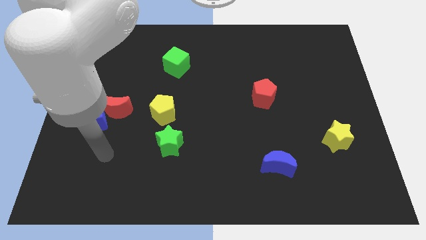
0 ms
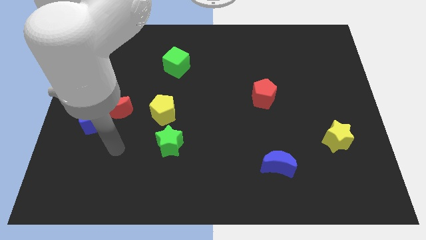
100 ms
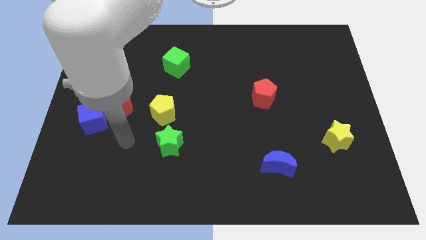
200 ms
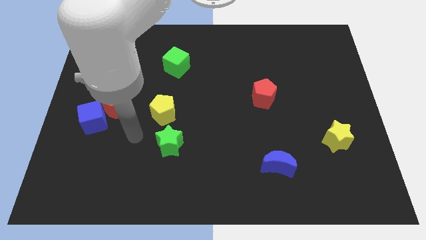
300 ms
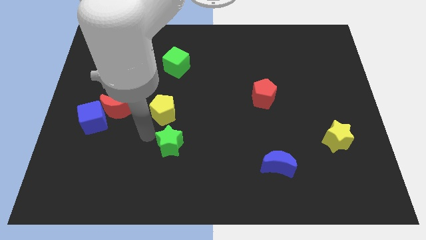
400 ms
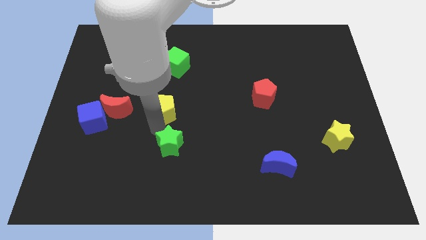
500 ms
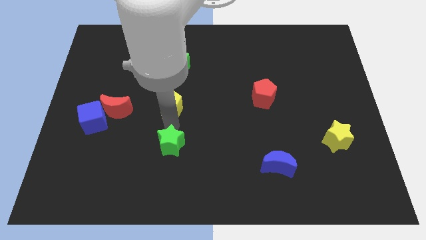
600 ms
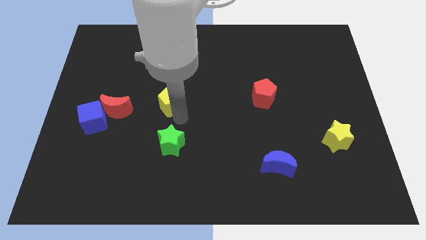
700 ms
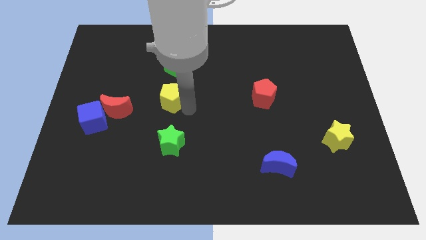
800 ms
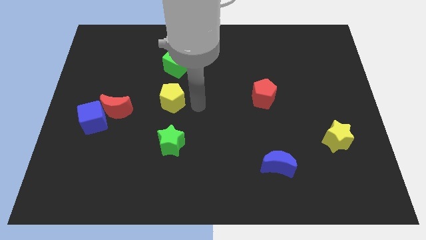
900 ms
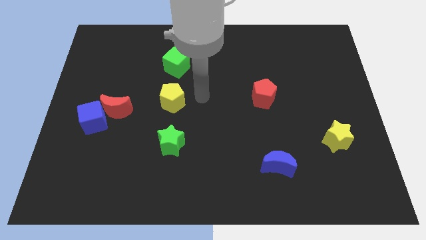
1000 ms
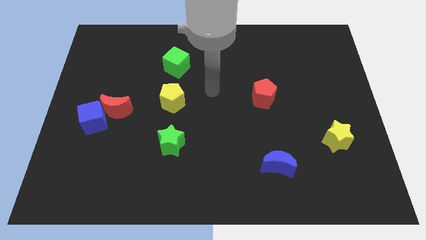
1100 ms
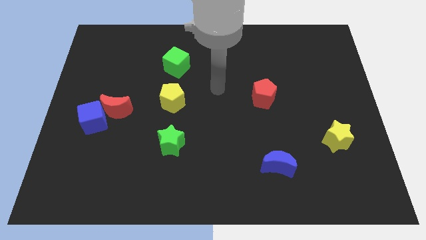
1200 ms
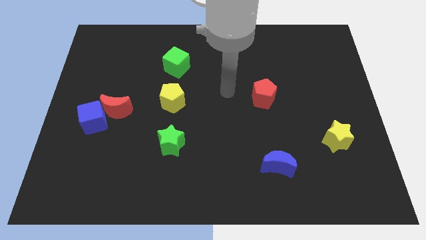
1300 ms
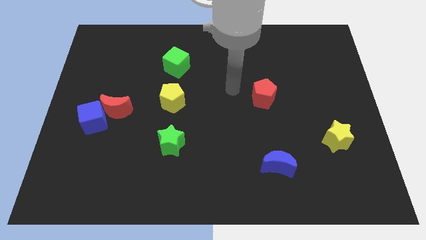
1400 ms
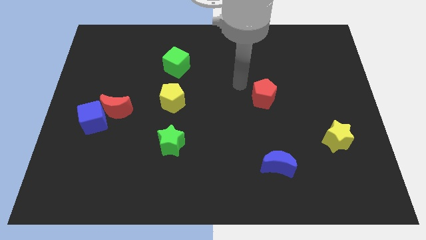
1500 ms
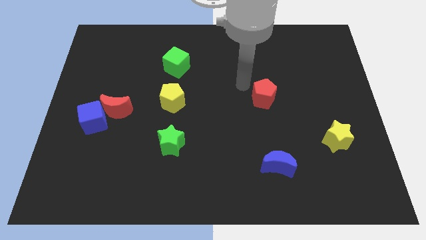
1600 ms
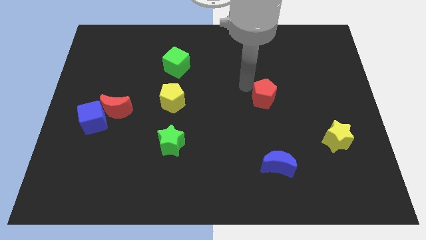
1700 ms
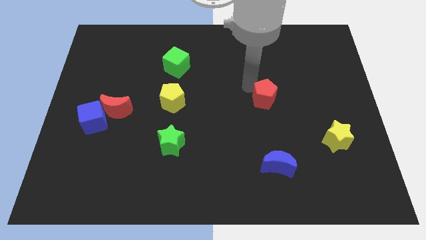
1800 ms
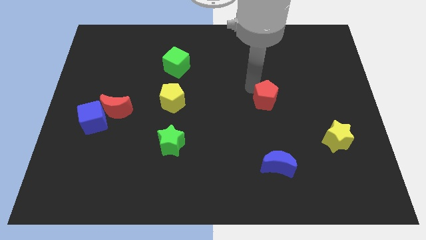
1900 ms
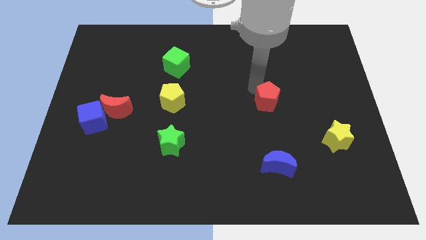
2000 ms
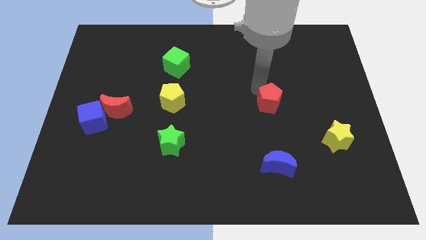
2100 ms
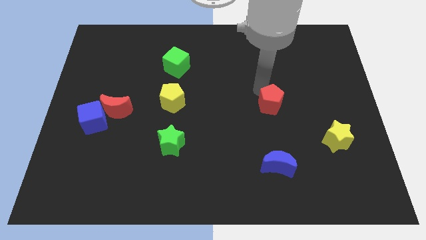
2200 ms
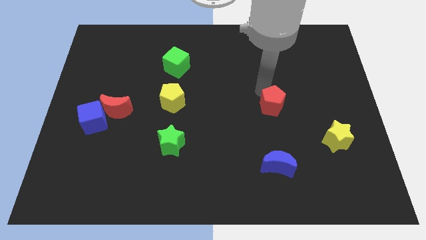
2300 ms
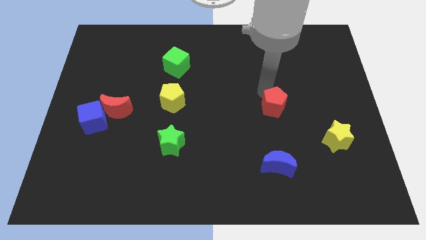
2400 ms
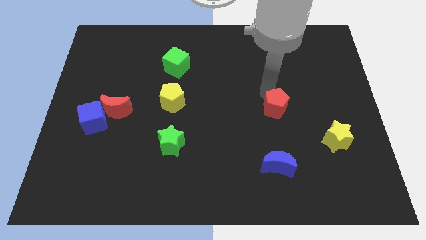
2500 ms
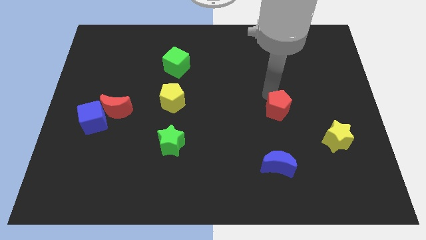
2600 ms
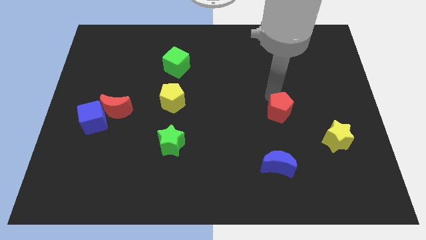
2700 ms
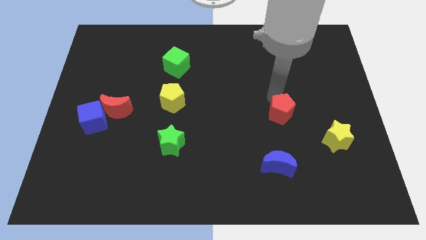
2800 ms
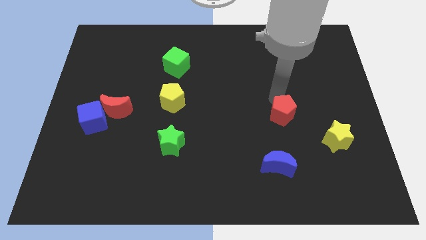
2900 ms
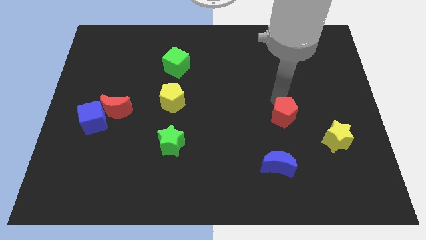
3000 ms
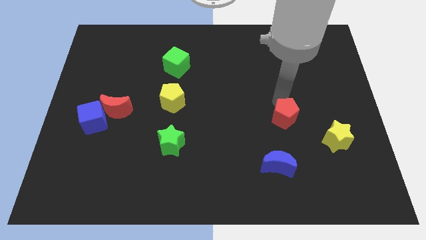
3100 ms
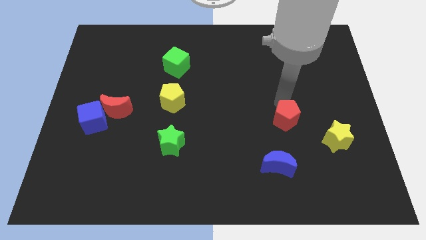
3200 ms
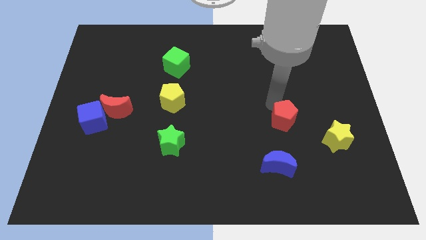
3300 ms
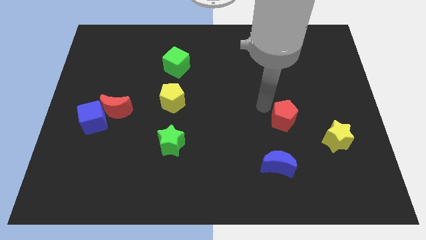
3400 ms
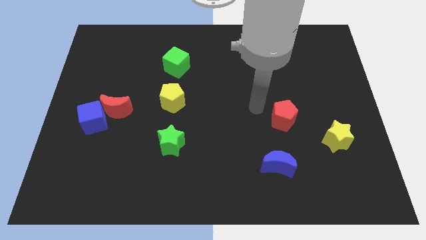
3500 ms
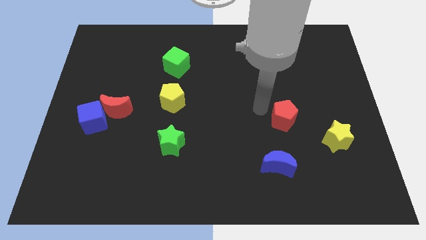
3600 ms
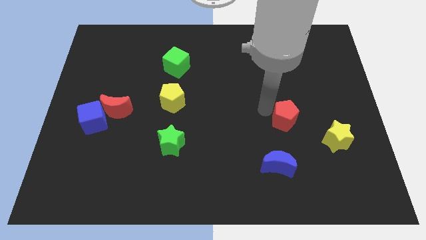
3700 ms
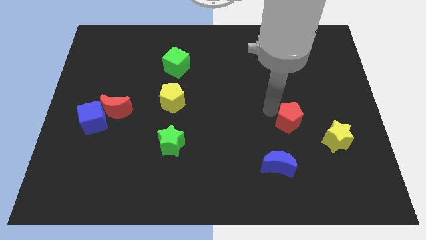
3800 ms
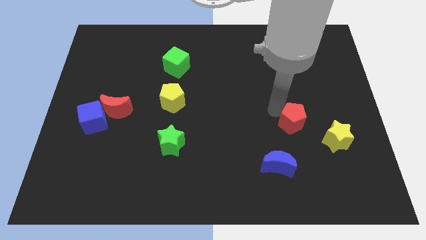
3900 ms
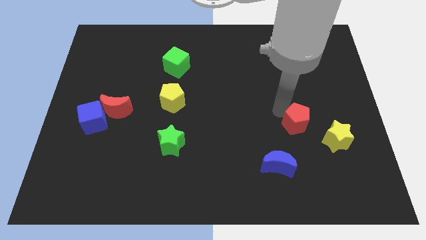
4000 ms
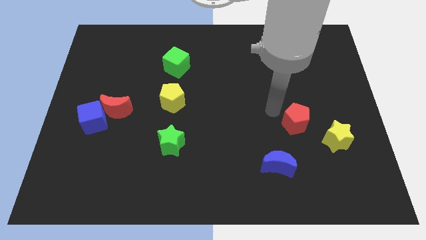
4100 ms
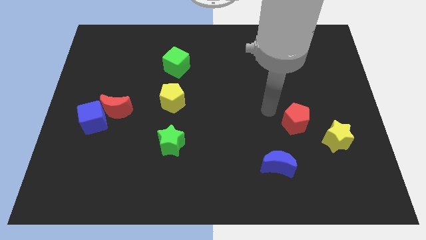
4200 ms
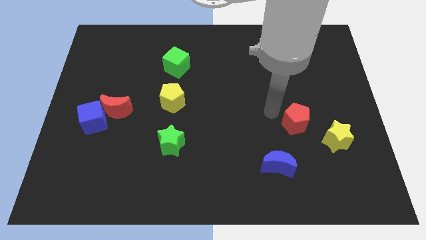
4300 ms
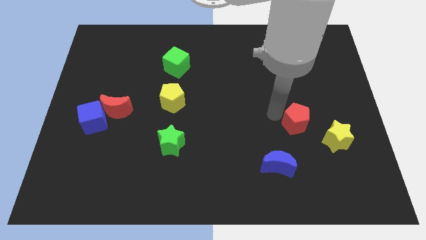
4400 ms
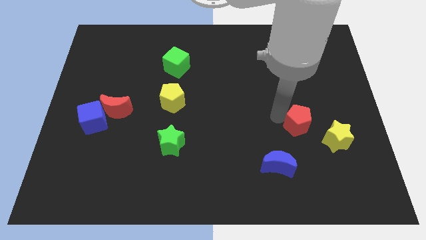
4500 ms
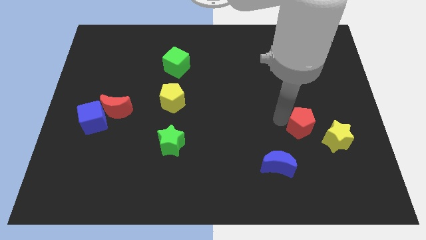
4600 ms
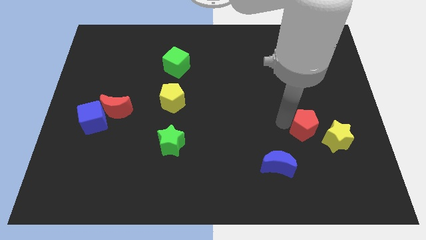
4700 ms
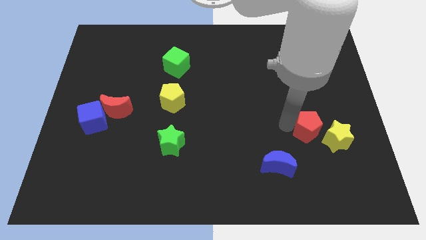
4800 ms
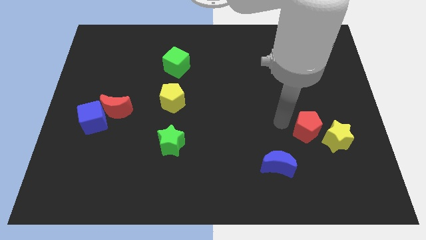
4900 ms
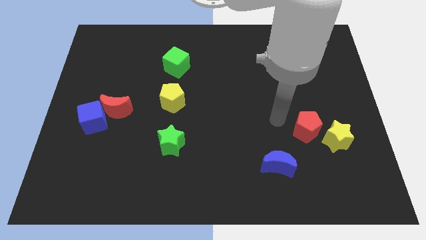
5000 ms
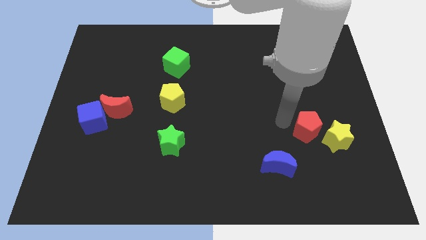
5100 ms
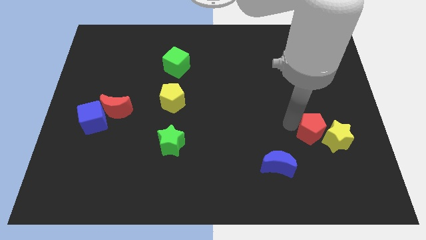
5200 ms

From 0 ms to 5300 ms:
push the red pentagon towards the yellow star

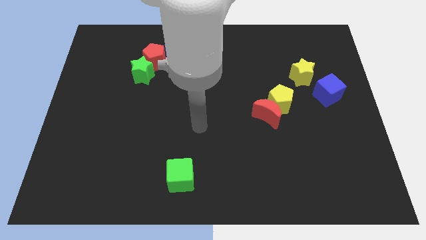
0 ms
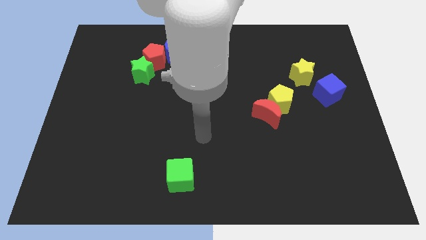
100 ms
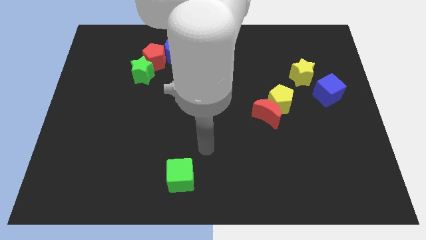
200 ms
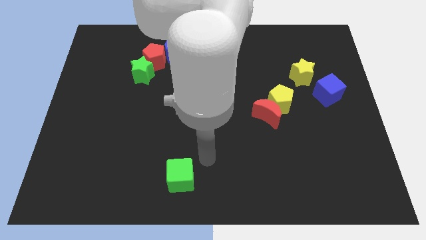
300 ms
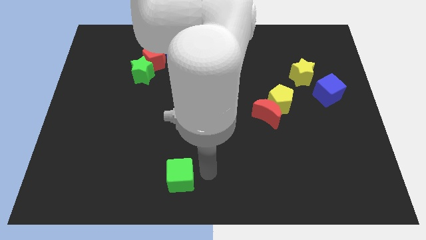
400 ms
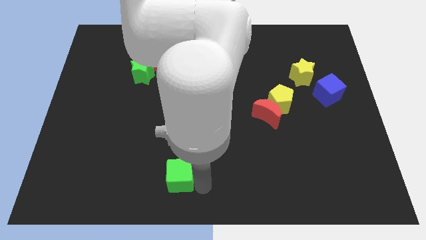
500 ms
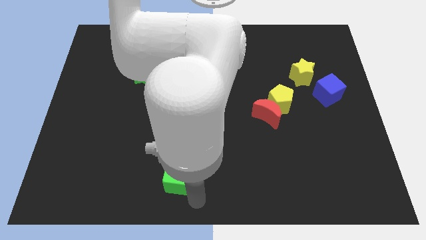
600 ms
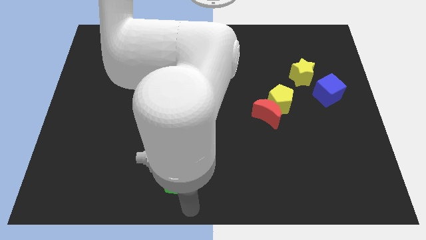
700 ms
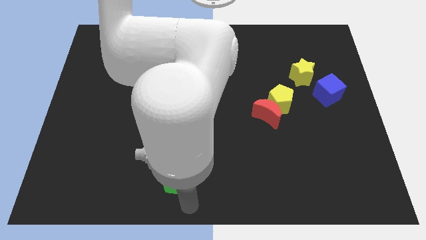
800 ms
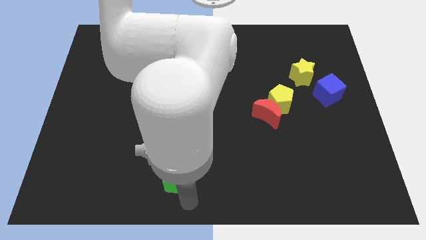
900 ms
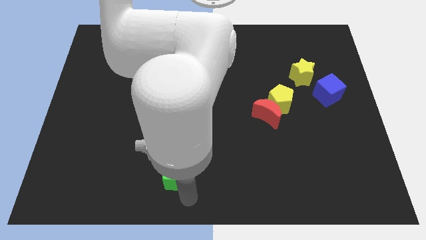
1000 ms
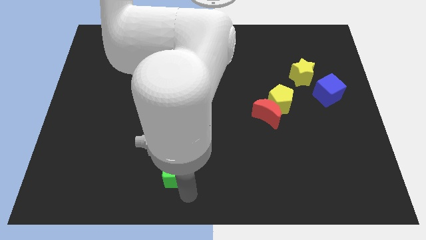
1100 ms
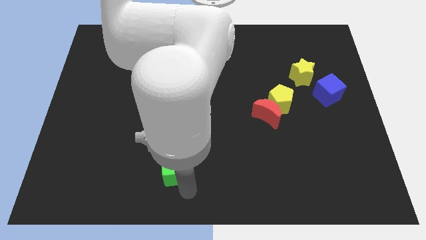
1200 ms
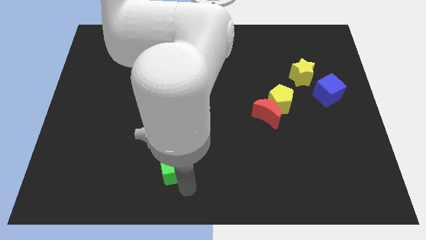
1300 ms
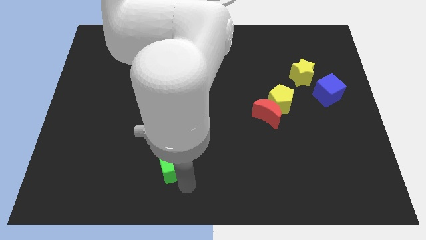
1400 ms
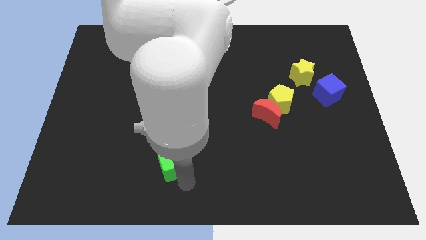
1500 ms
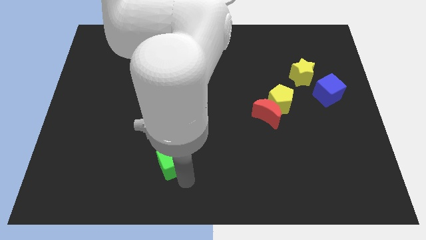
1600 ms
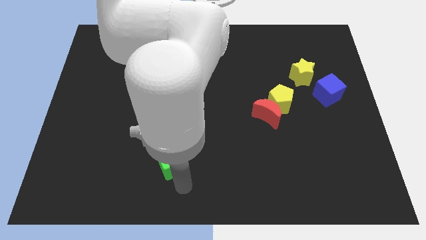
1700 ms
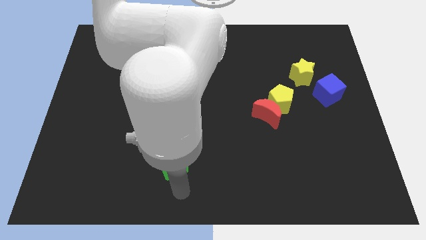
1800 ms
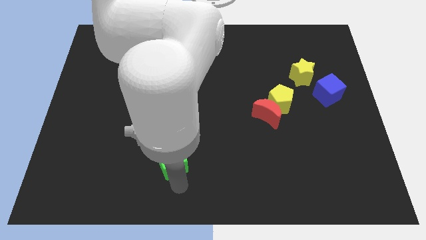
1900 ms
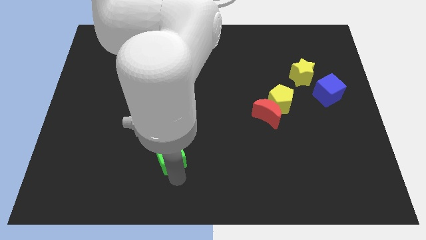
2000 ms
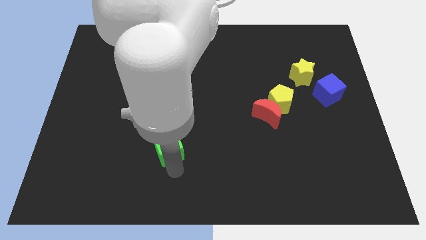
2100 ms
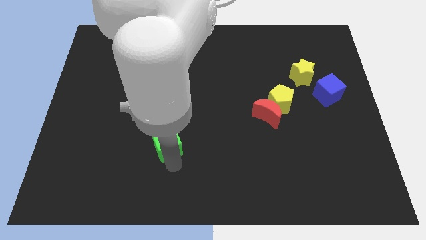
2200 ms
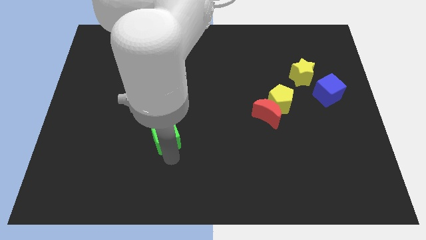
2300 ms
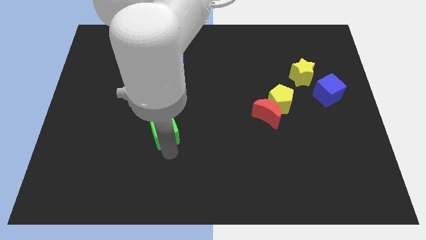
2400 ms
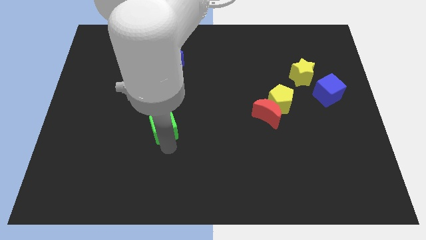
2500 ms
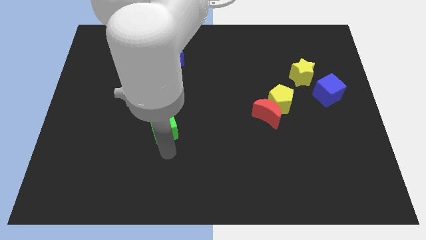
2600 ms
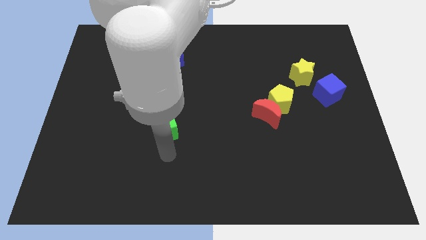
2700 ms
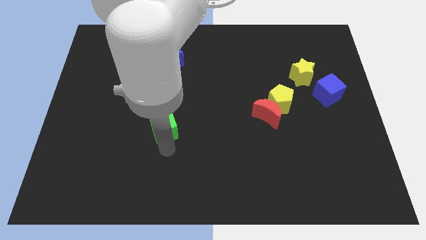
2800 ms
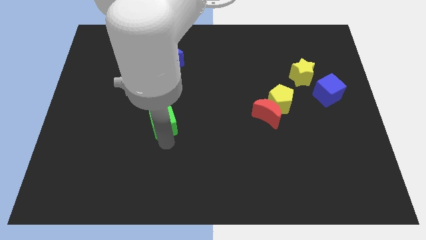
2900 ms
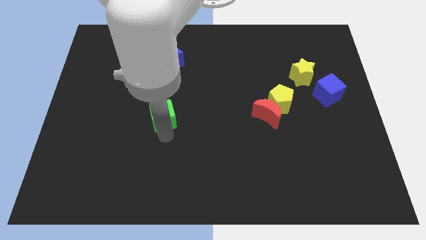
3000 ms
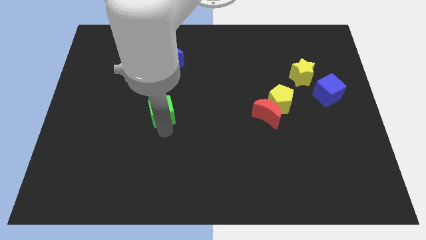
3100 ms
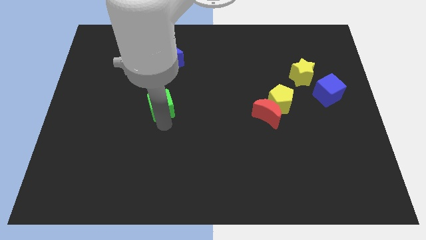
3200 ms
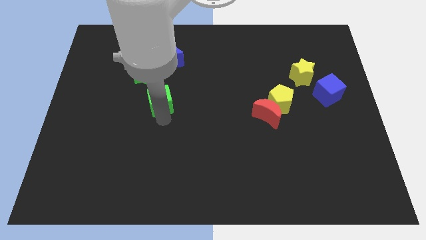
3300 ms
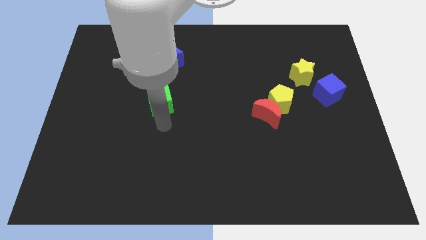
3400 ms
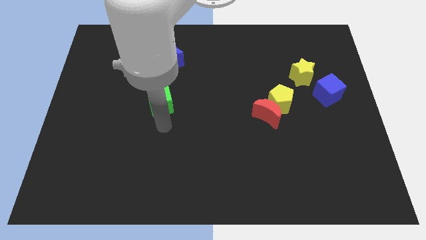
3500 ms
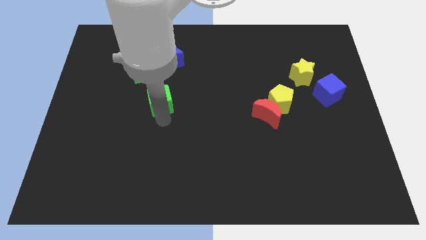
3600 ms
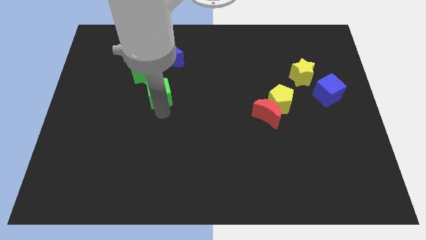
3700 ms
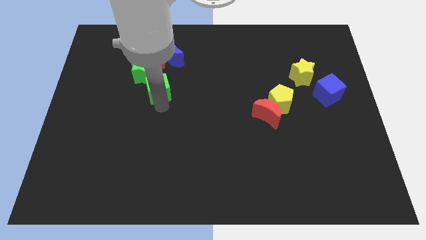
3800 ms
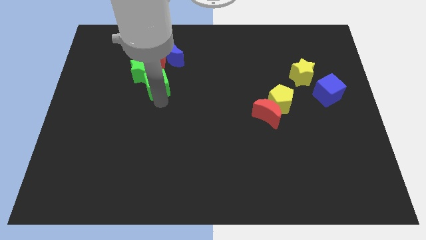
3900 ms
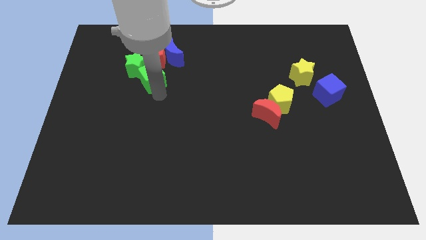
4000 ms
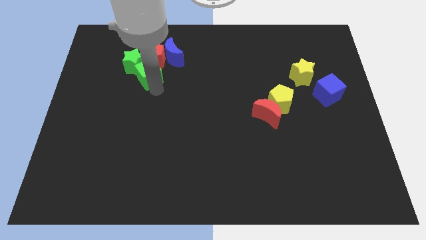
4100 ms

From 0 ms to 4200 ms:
put the green cube to the red pentagon
